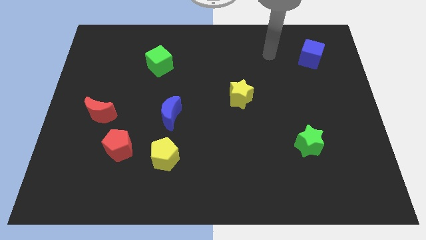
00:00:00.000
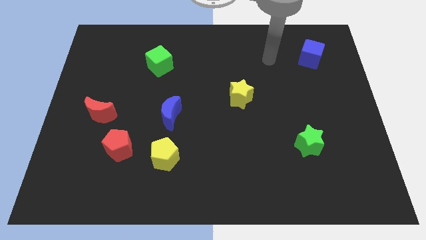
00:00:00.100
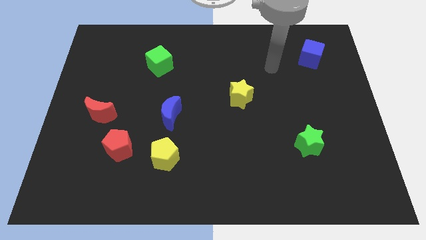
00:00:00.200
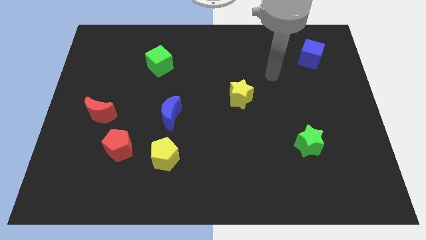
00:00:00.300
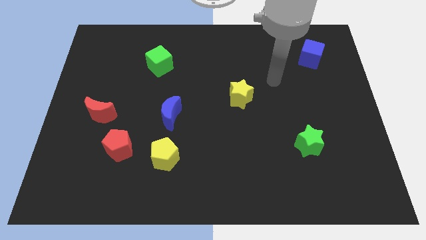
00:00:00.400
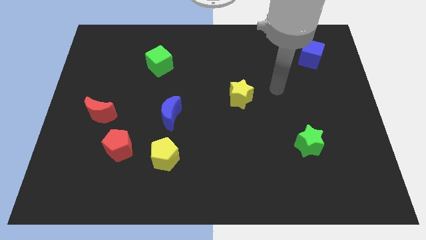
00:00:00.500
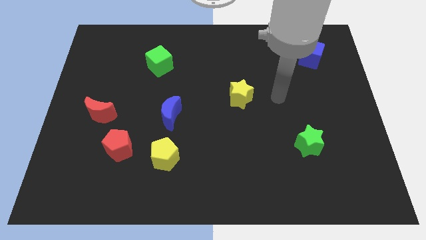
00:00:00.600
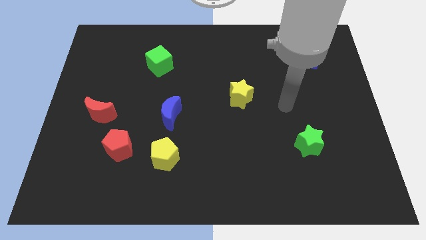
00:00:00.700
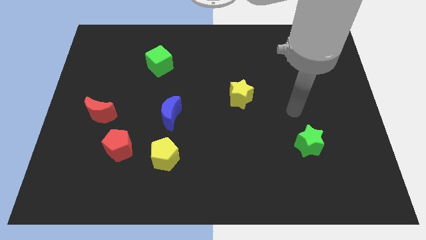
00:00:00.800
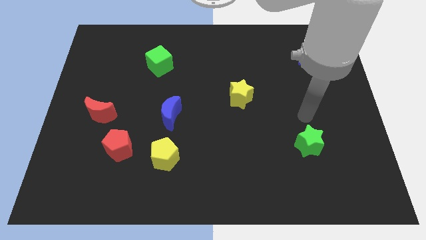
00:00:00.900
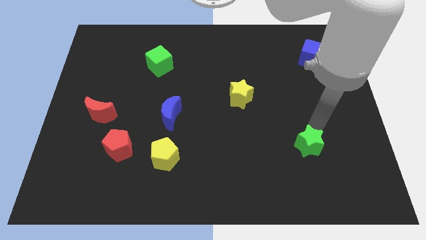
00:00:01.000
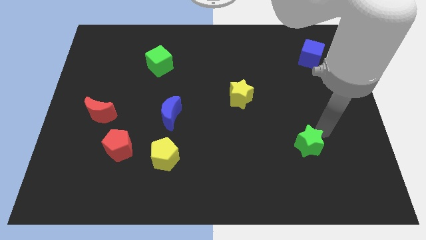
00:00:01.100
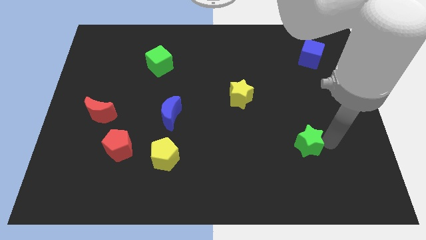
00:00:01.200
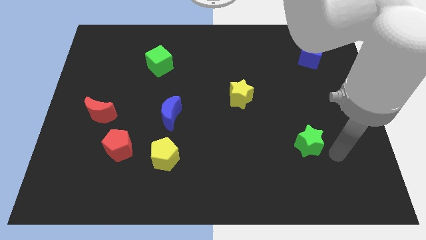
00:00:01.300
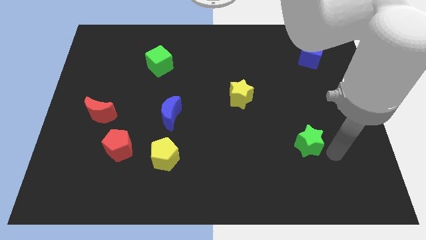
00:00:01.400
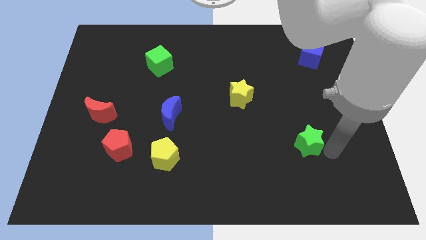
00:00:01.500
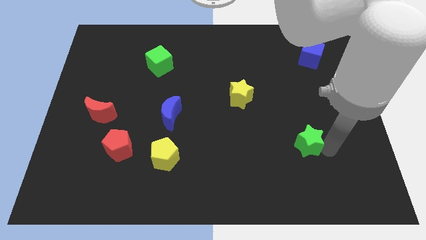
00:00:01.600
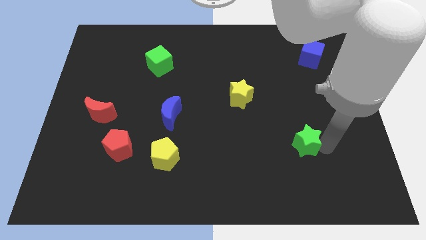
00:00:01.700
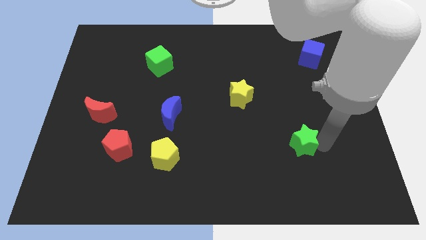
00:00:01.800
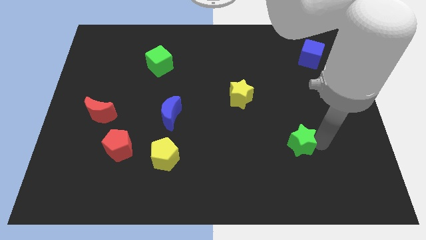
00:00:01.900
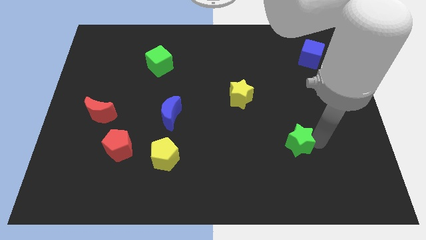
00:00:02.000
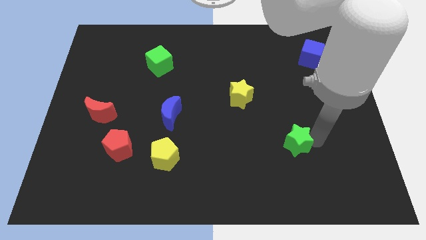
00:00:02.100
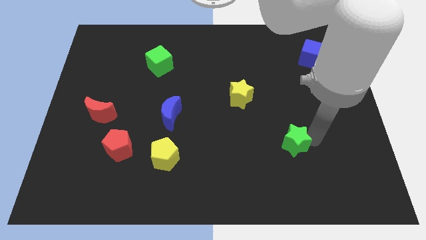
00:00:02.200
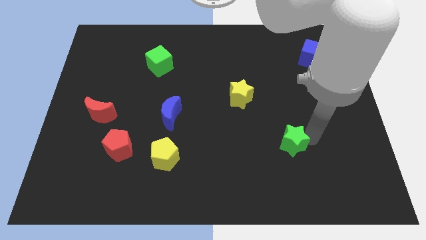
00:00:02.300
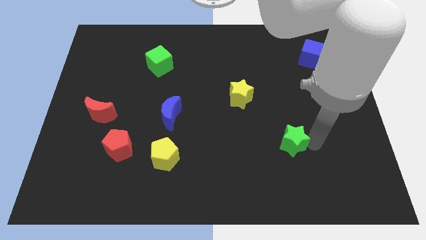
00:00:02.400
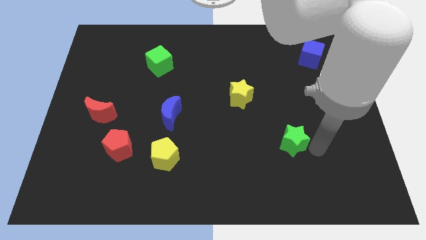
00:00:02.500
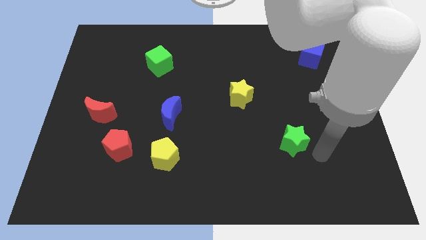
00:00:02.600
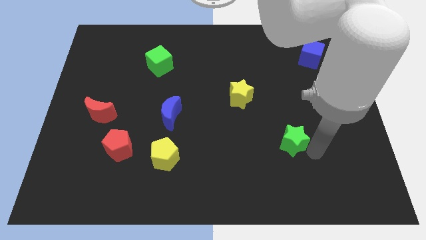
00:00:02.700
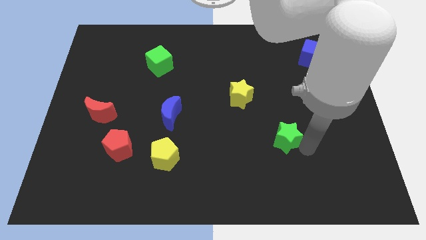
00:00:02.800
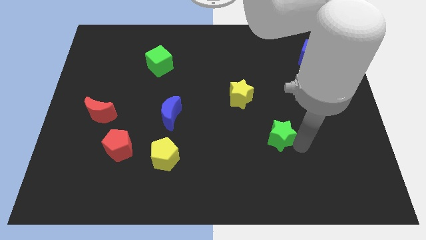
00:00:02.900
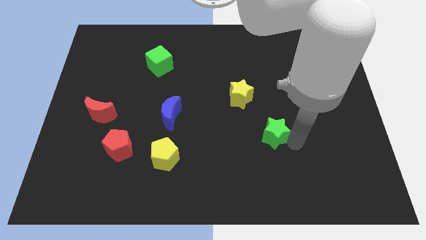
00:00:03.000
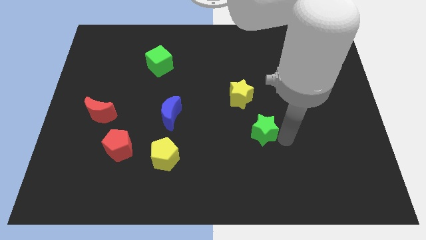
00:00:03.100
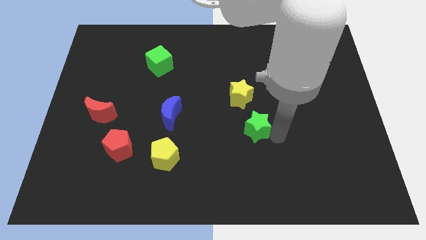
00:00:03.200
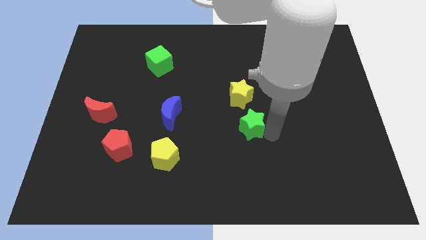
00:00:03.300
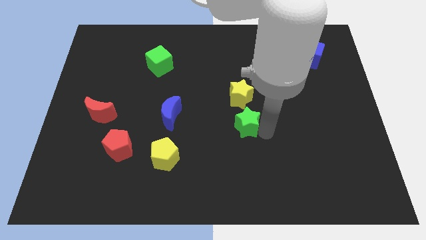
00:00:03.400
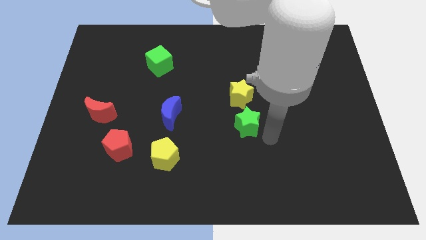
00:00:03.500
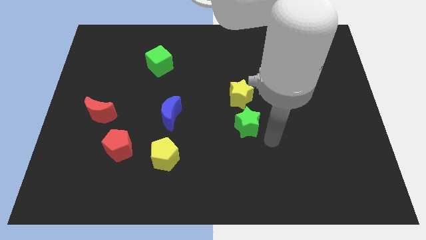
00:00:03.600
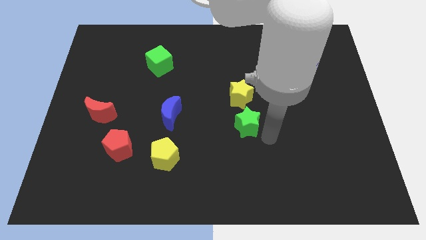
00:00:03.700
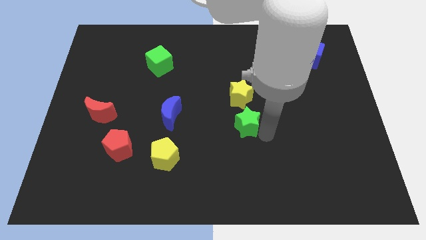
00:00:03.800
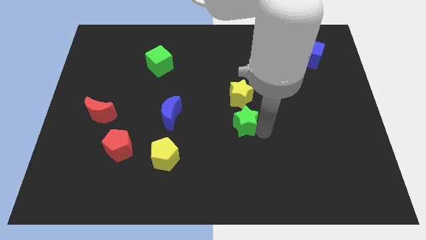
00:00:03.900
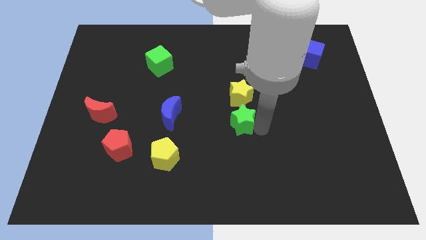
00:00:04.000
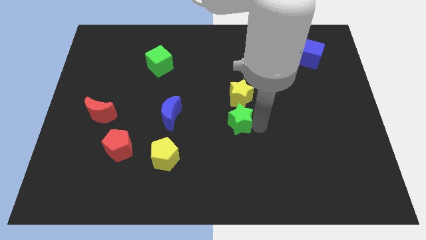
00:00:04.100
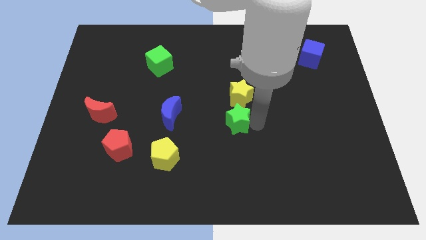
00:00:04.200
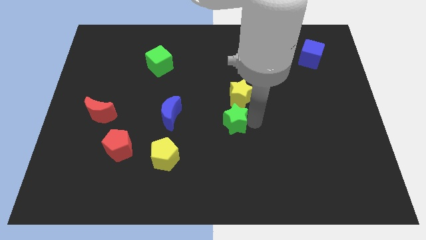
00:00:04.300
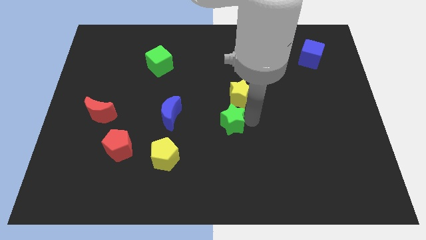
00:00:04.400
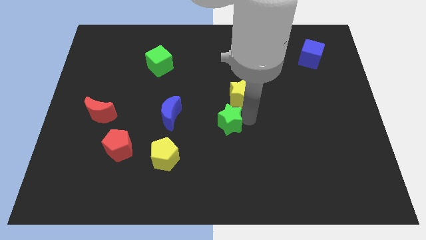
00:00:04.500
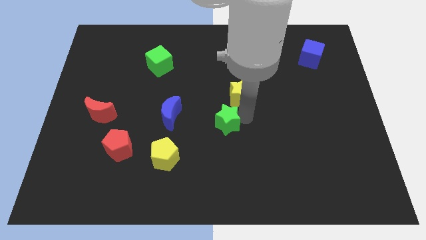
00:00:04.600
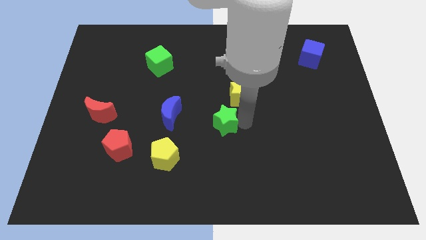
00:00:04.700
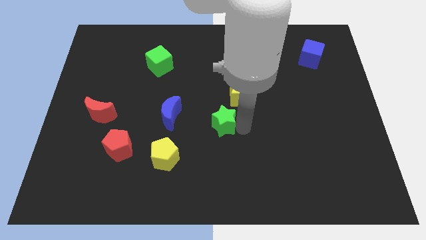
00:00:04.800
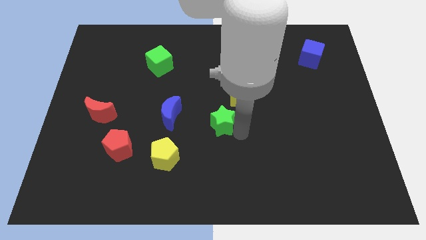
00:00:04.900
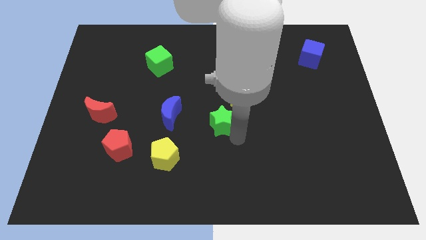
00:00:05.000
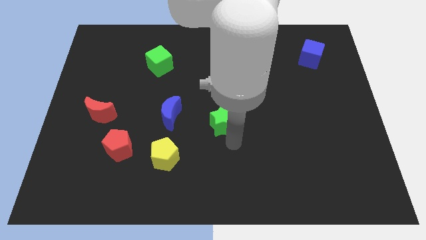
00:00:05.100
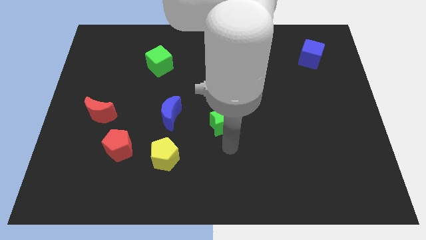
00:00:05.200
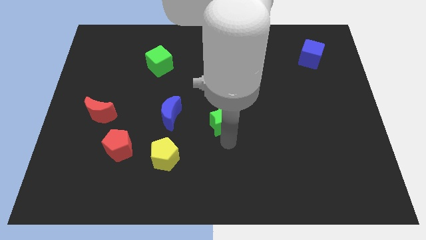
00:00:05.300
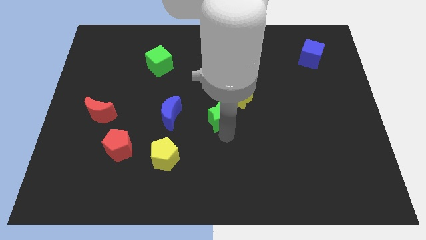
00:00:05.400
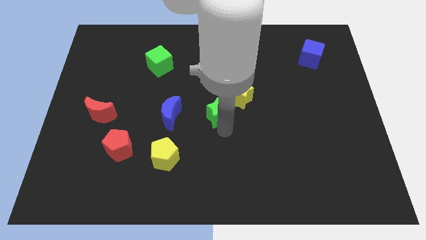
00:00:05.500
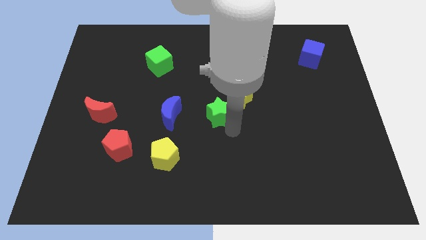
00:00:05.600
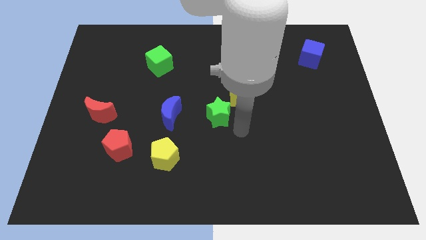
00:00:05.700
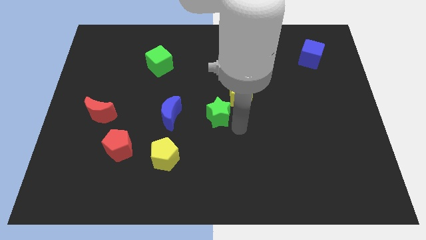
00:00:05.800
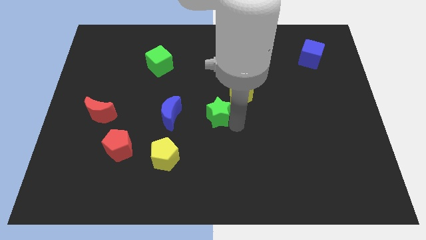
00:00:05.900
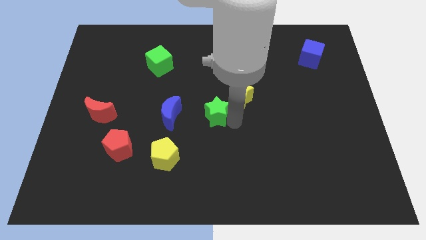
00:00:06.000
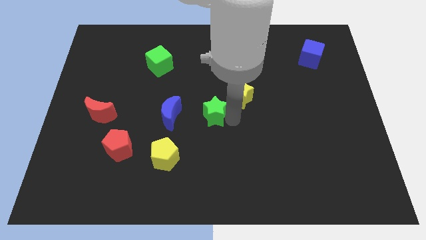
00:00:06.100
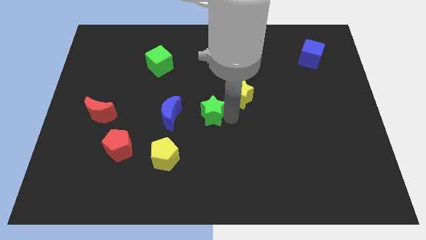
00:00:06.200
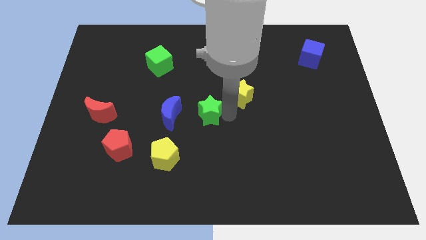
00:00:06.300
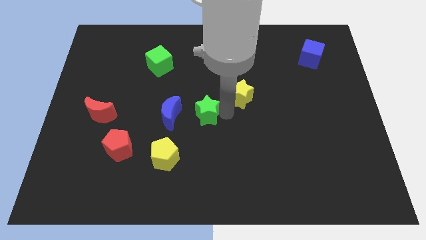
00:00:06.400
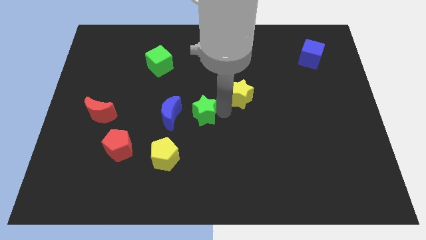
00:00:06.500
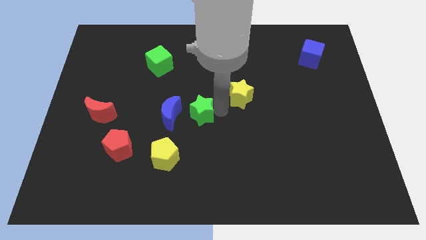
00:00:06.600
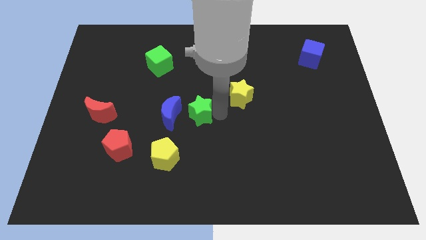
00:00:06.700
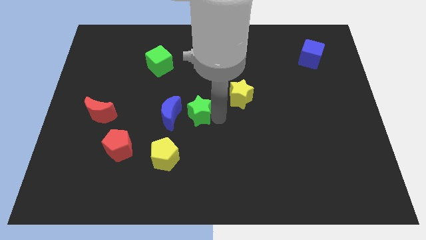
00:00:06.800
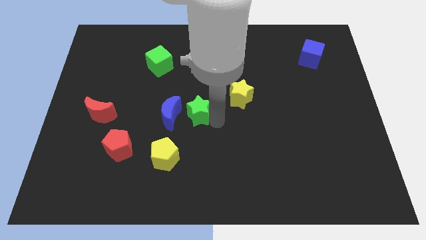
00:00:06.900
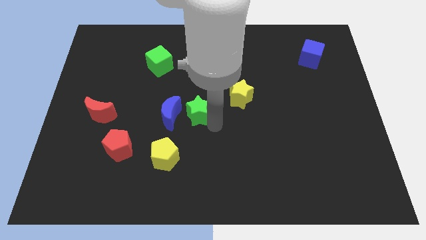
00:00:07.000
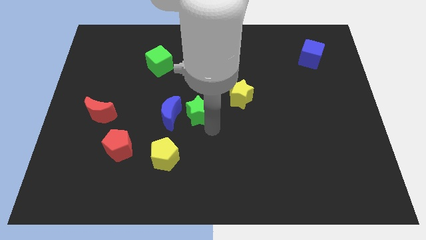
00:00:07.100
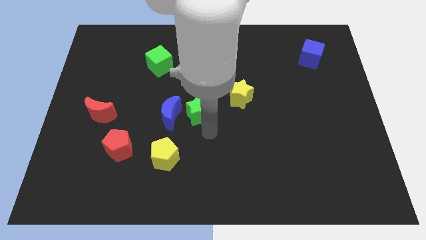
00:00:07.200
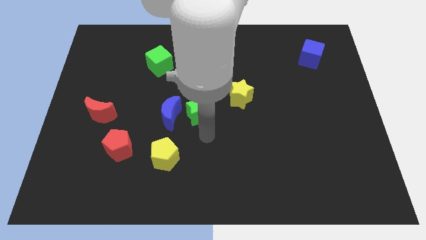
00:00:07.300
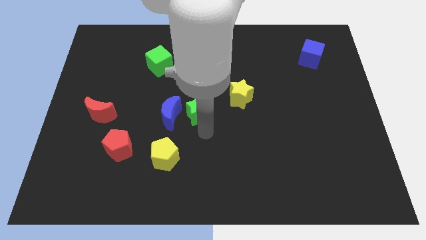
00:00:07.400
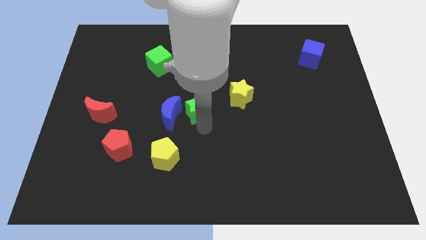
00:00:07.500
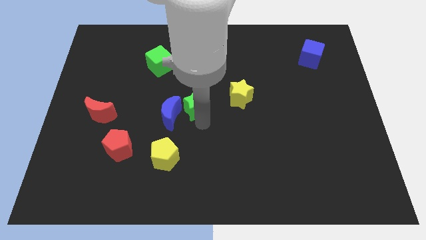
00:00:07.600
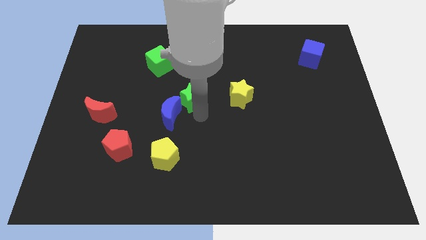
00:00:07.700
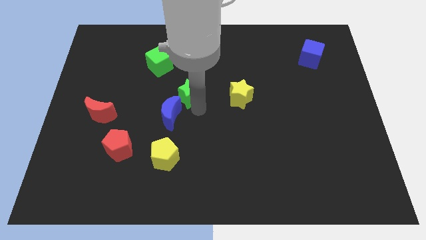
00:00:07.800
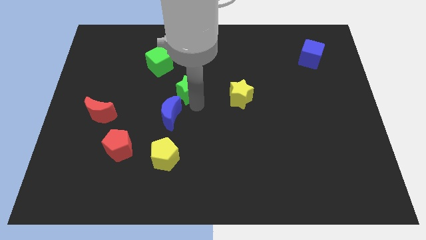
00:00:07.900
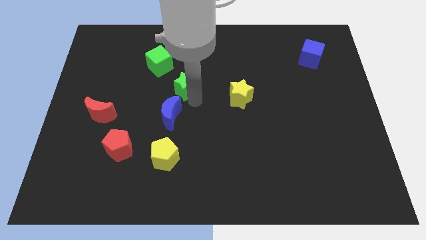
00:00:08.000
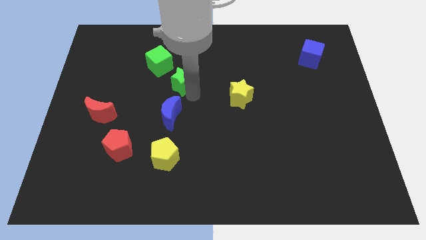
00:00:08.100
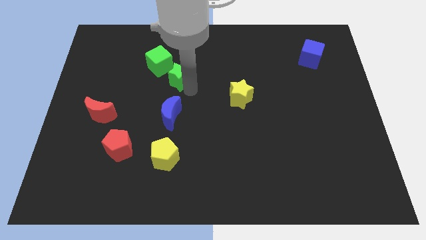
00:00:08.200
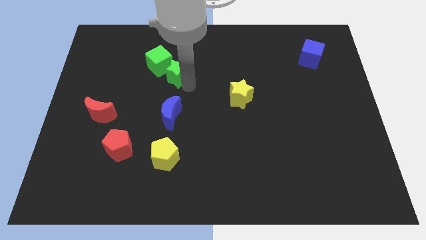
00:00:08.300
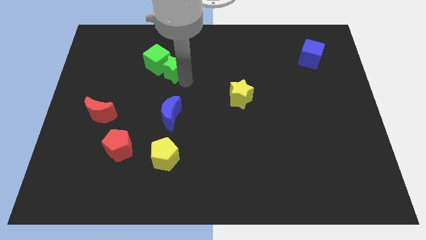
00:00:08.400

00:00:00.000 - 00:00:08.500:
move the green star next to the green cube
